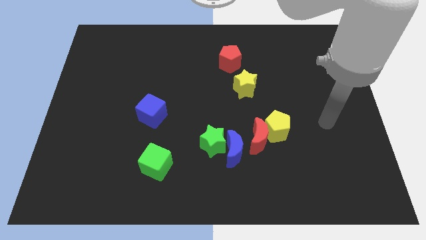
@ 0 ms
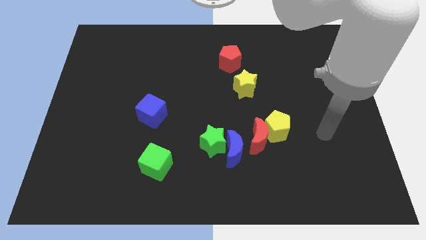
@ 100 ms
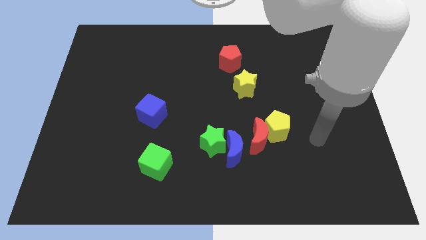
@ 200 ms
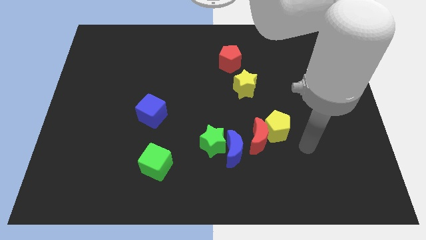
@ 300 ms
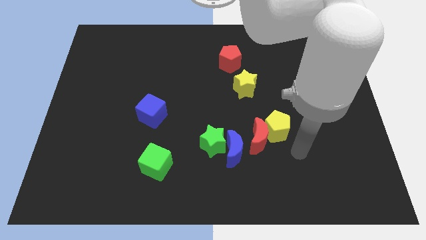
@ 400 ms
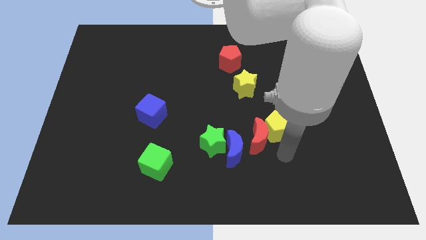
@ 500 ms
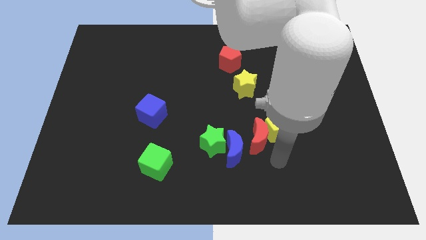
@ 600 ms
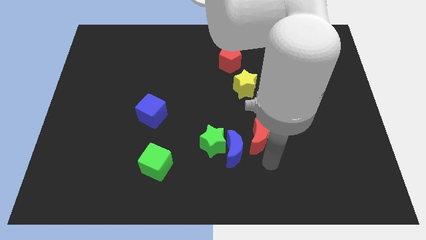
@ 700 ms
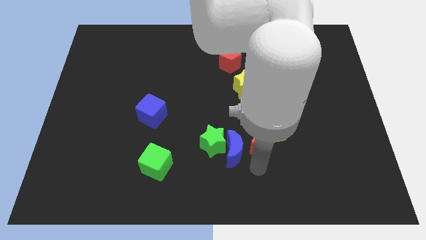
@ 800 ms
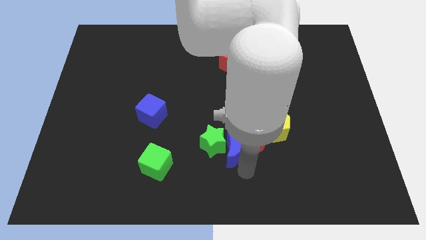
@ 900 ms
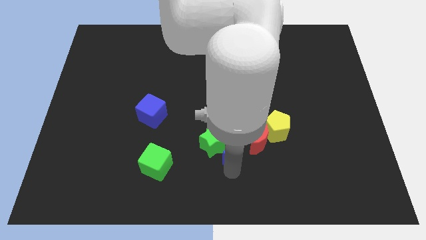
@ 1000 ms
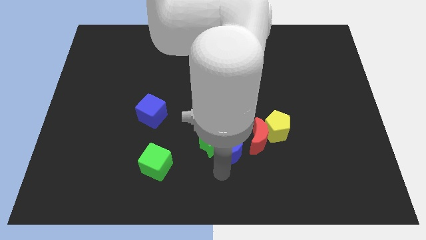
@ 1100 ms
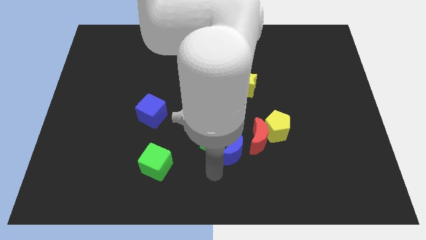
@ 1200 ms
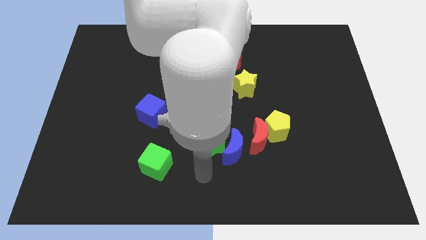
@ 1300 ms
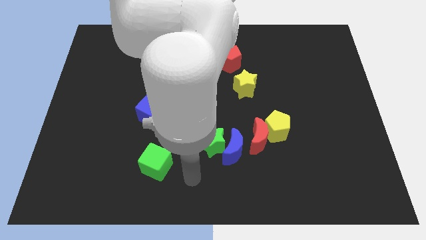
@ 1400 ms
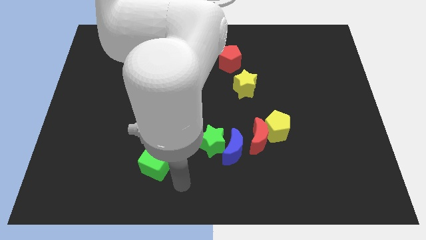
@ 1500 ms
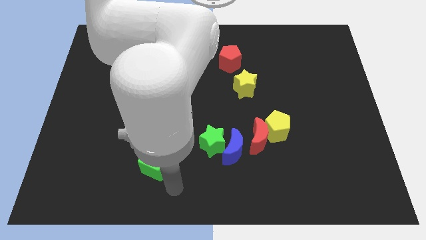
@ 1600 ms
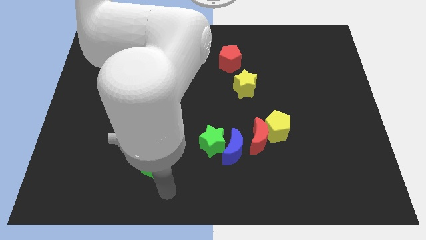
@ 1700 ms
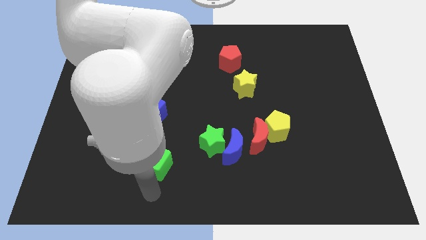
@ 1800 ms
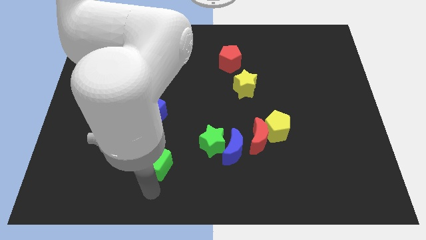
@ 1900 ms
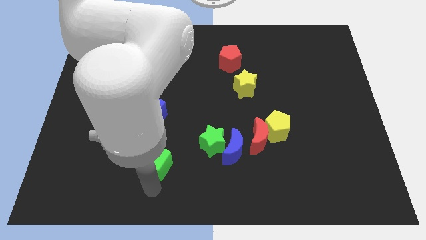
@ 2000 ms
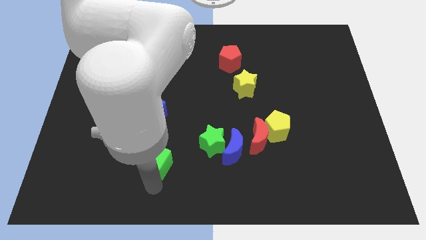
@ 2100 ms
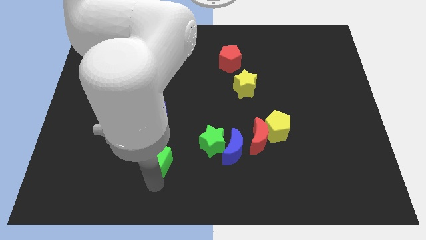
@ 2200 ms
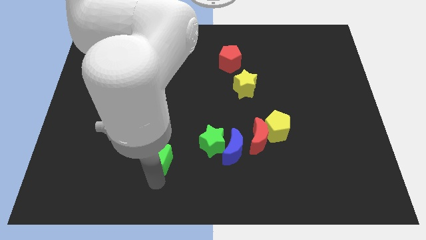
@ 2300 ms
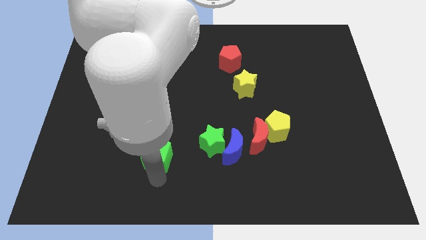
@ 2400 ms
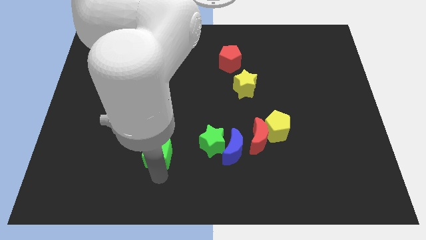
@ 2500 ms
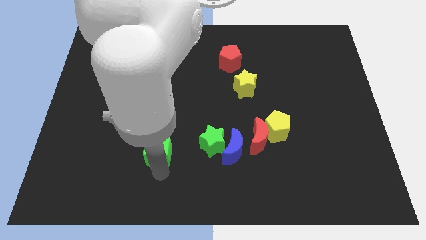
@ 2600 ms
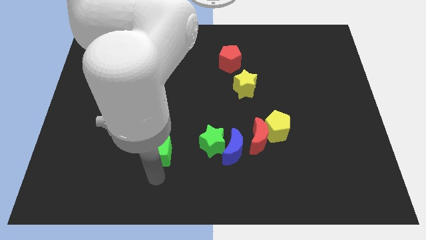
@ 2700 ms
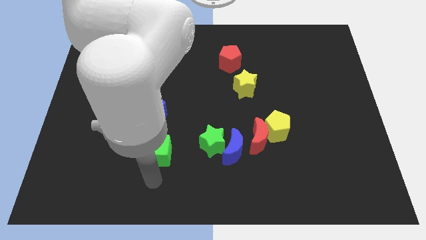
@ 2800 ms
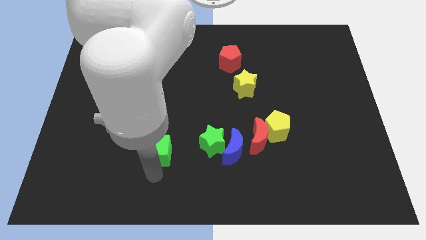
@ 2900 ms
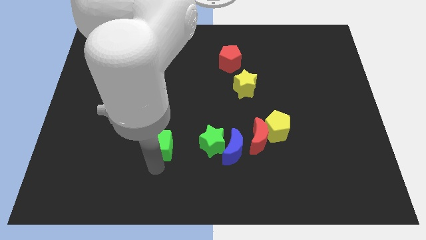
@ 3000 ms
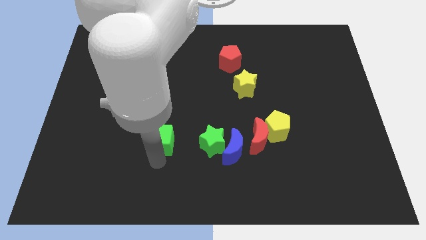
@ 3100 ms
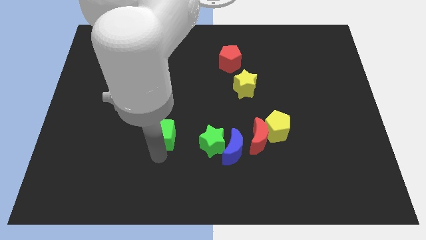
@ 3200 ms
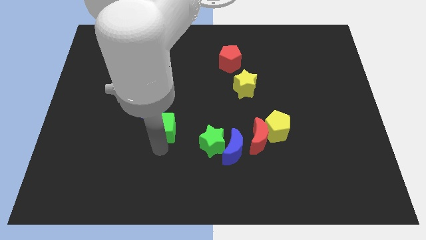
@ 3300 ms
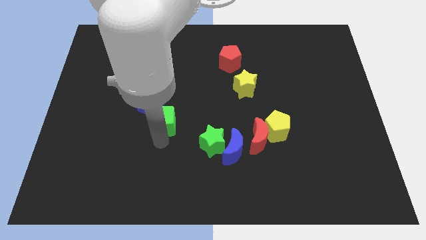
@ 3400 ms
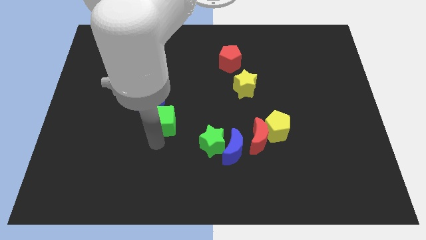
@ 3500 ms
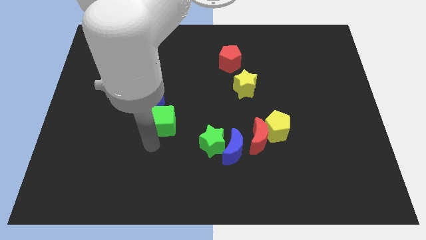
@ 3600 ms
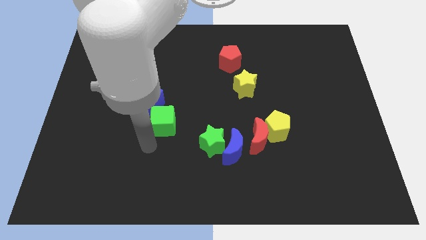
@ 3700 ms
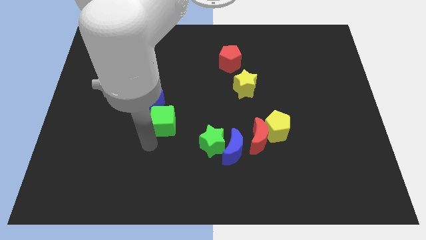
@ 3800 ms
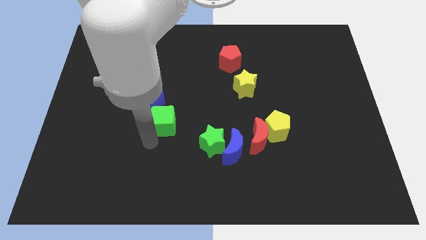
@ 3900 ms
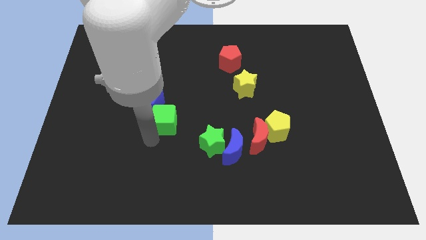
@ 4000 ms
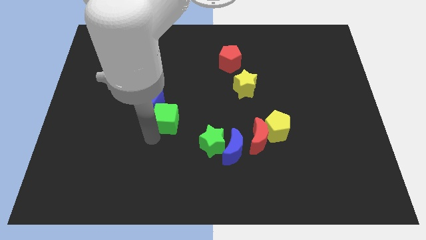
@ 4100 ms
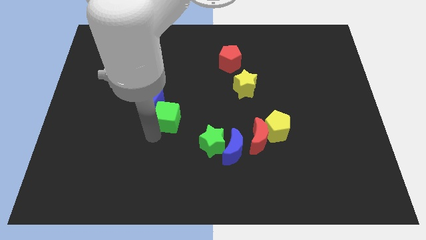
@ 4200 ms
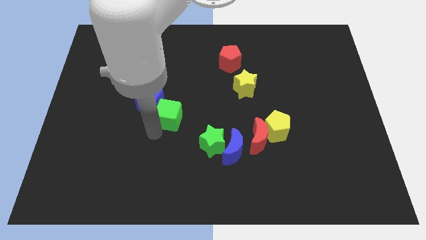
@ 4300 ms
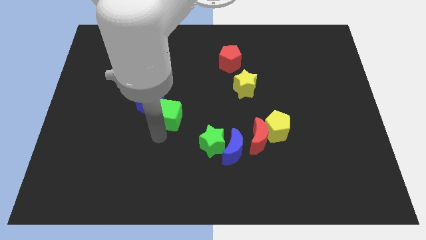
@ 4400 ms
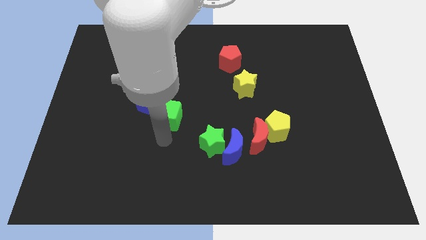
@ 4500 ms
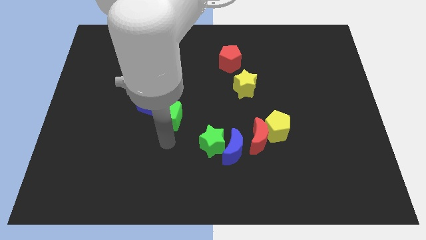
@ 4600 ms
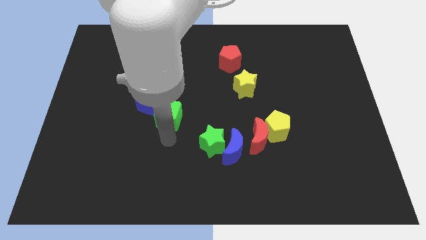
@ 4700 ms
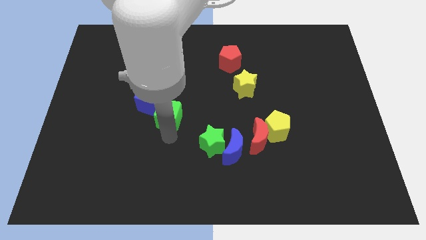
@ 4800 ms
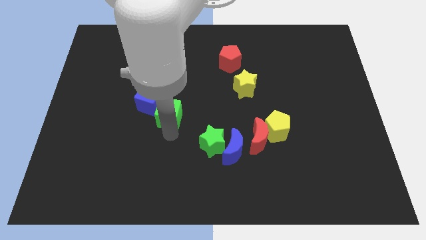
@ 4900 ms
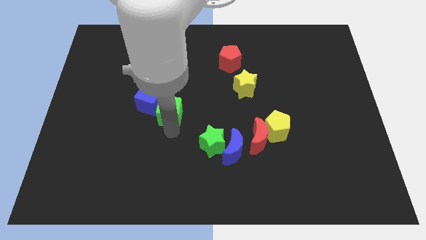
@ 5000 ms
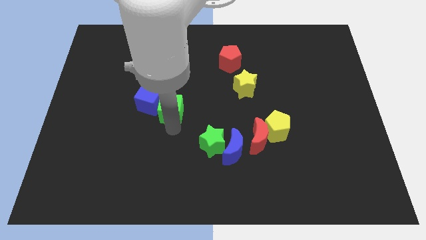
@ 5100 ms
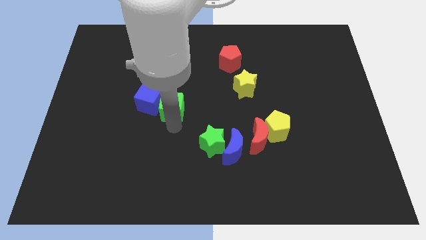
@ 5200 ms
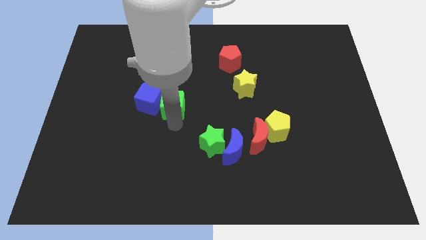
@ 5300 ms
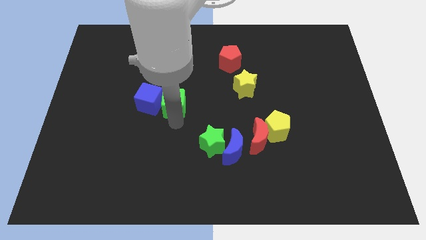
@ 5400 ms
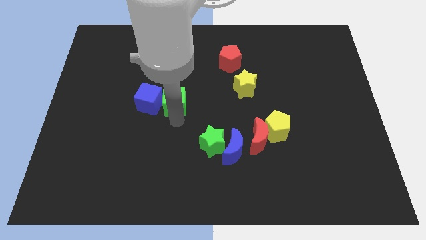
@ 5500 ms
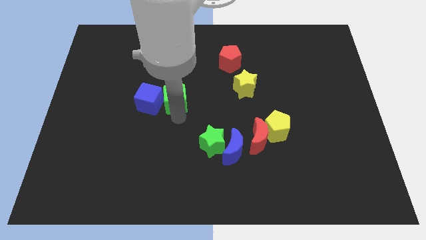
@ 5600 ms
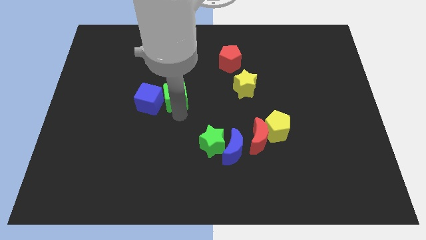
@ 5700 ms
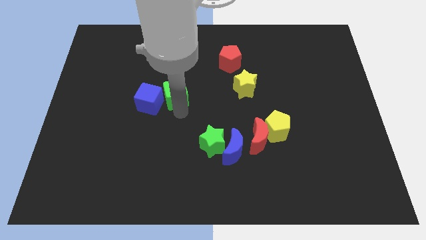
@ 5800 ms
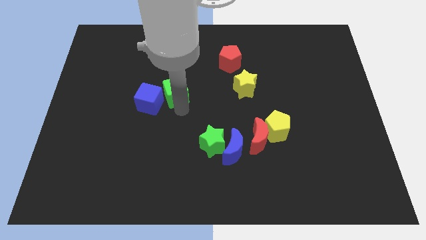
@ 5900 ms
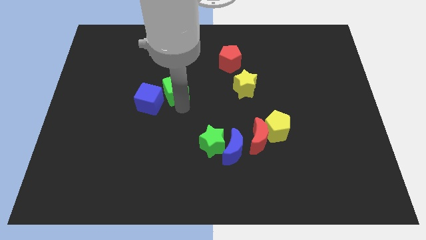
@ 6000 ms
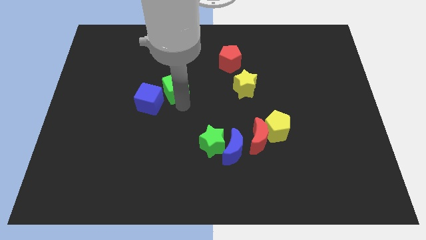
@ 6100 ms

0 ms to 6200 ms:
push the green cube up

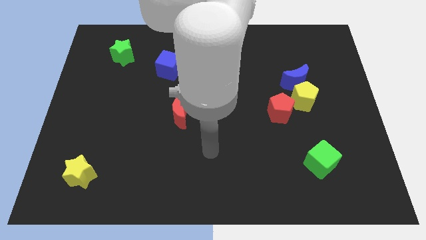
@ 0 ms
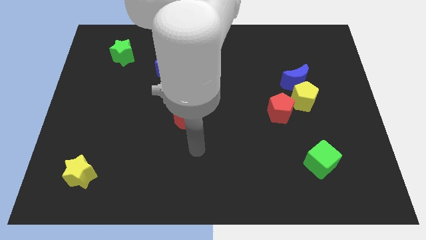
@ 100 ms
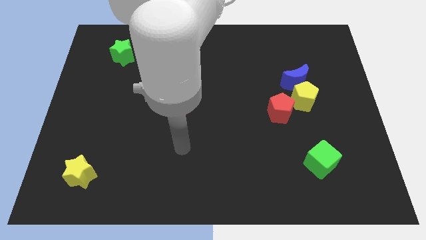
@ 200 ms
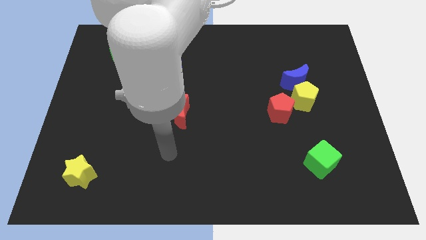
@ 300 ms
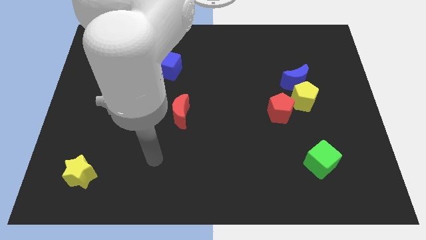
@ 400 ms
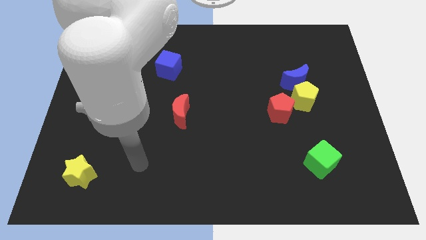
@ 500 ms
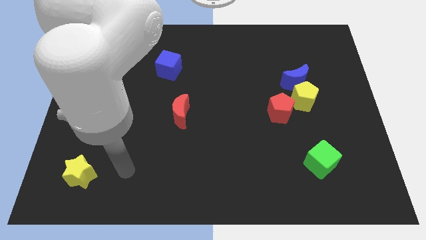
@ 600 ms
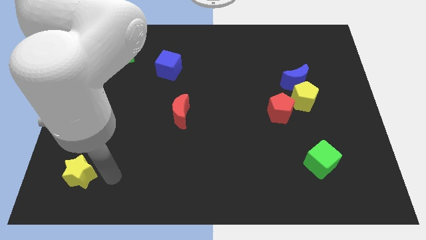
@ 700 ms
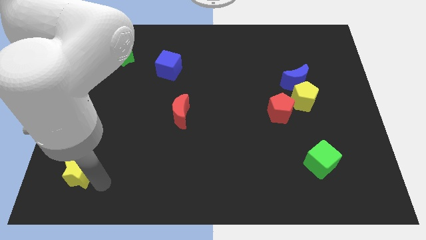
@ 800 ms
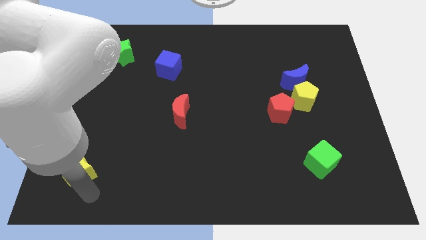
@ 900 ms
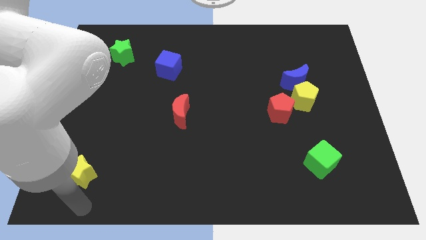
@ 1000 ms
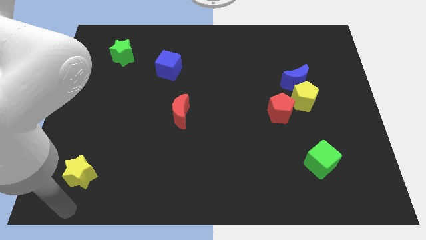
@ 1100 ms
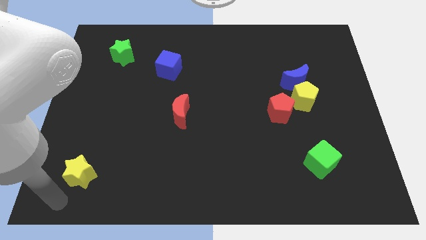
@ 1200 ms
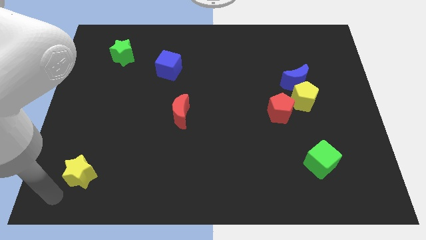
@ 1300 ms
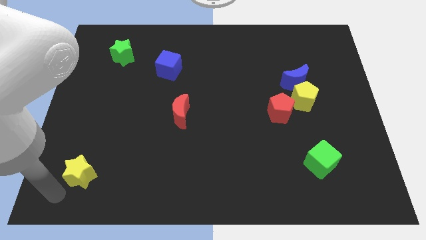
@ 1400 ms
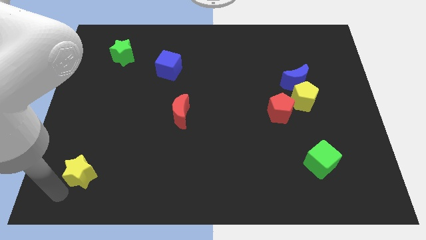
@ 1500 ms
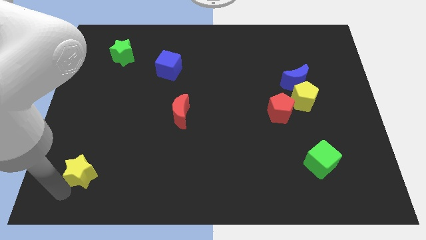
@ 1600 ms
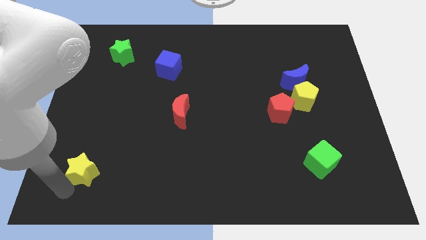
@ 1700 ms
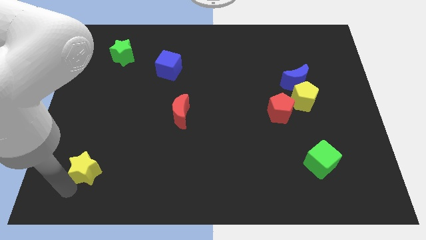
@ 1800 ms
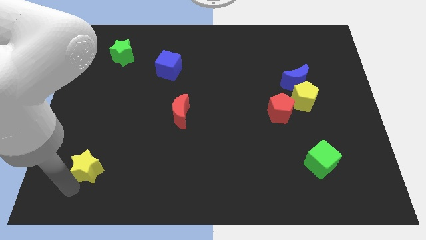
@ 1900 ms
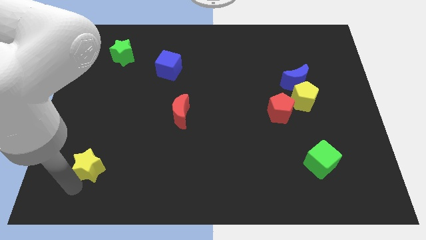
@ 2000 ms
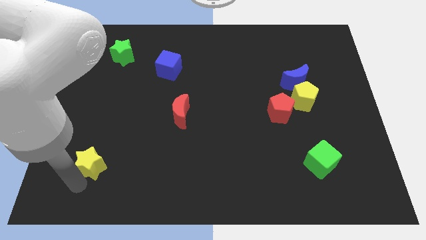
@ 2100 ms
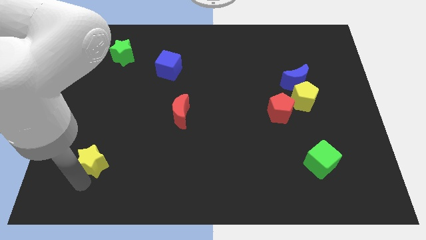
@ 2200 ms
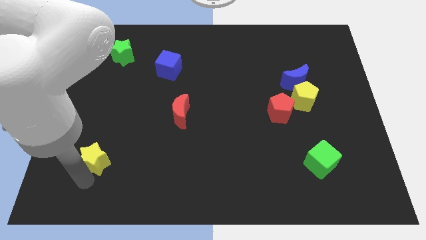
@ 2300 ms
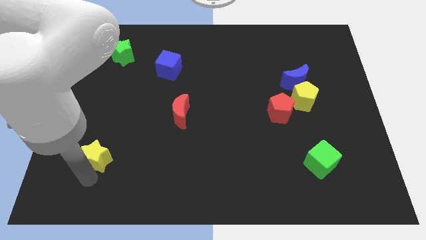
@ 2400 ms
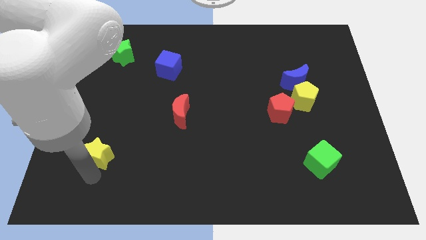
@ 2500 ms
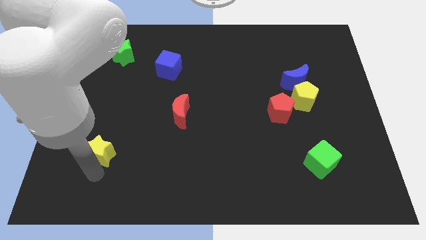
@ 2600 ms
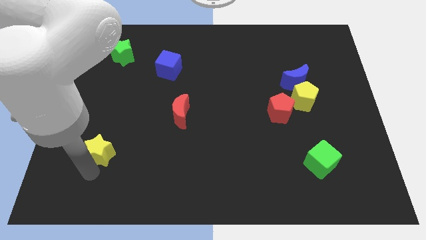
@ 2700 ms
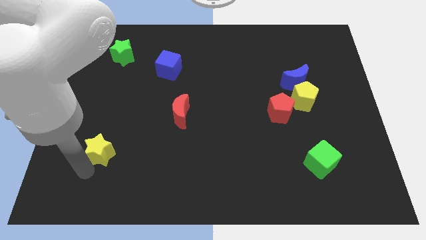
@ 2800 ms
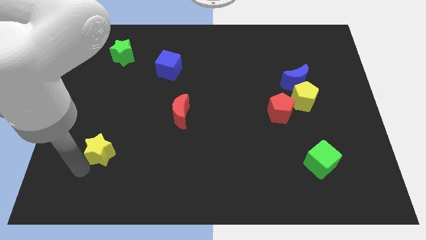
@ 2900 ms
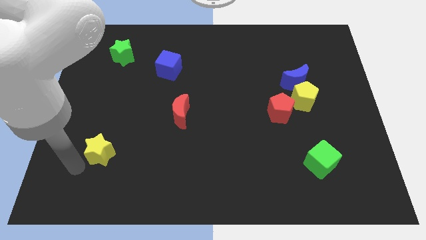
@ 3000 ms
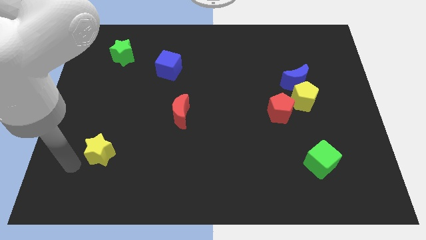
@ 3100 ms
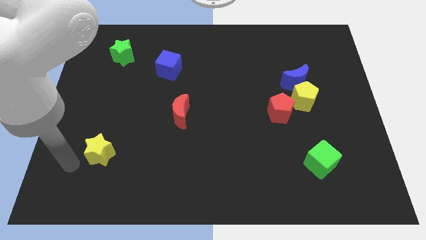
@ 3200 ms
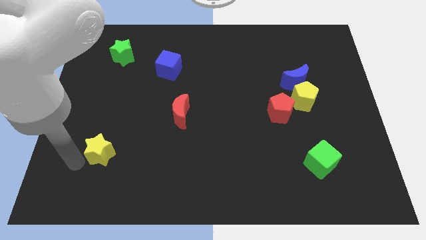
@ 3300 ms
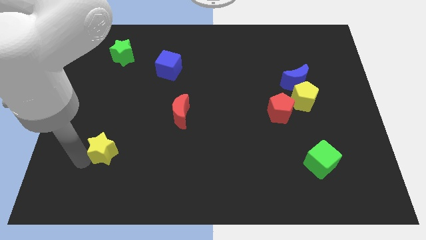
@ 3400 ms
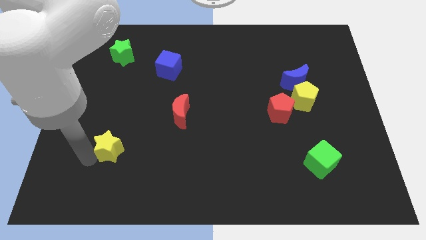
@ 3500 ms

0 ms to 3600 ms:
slide the yellow star diagonally up and right somewhat
